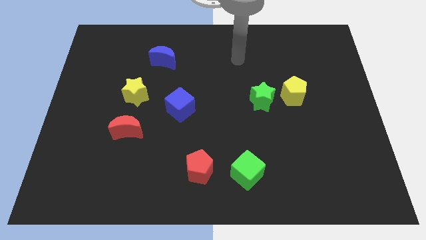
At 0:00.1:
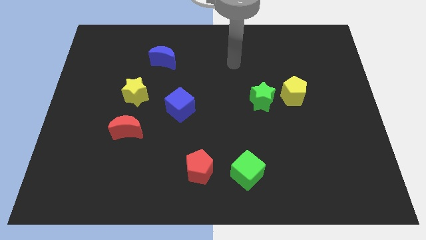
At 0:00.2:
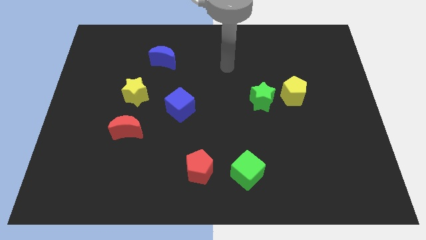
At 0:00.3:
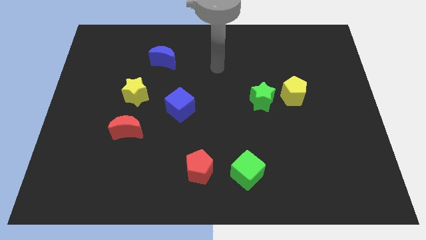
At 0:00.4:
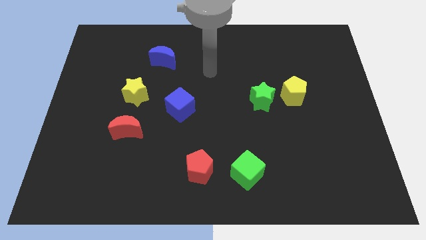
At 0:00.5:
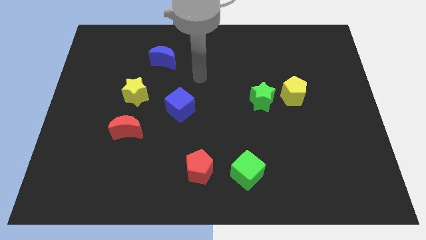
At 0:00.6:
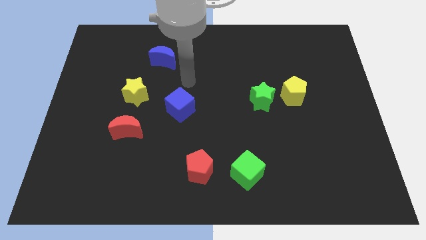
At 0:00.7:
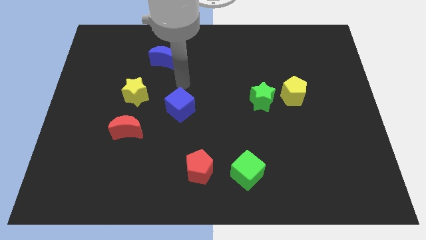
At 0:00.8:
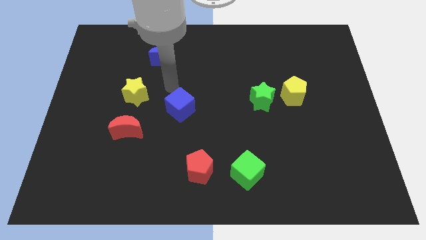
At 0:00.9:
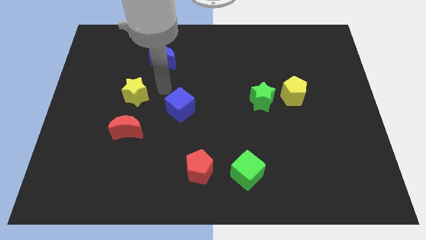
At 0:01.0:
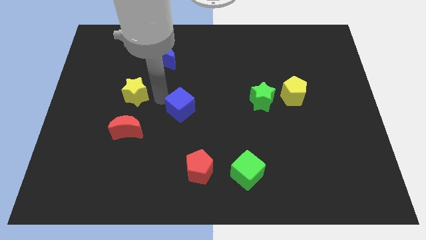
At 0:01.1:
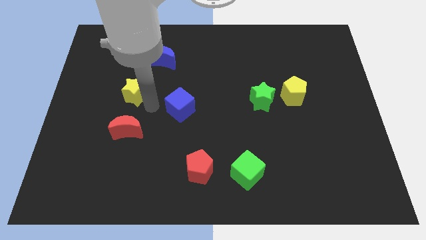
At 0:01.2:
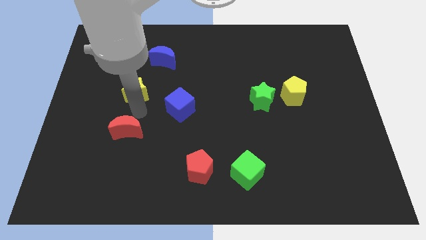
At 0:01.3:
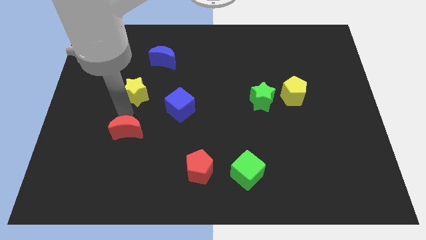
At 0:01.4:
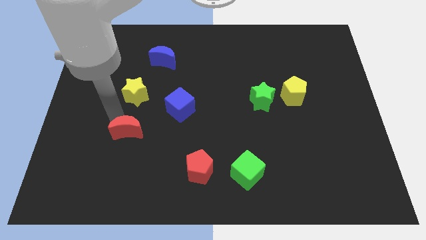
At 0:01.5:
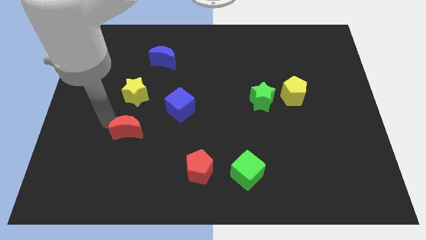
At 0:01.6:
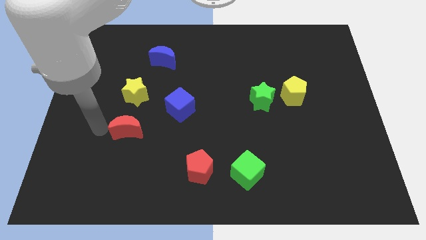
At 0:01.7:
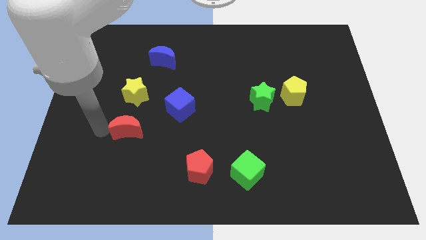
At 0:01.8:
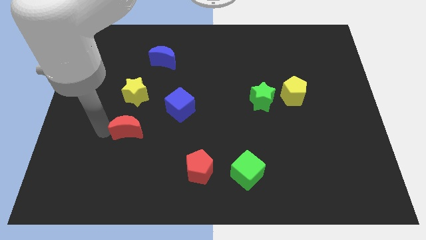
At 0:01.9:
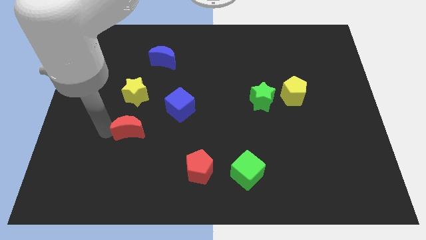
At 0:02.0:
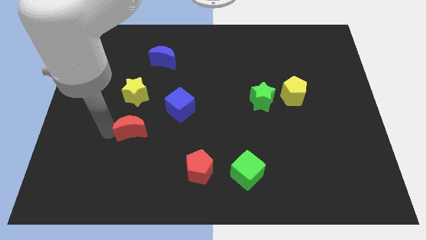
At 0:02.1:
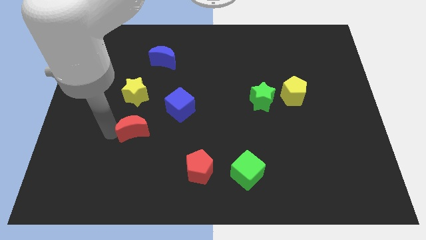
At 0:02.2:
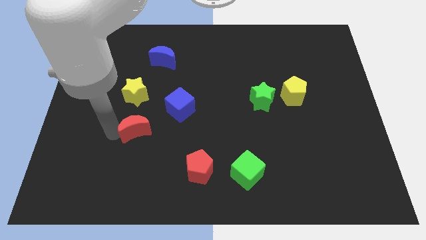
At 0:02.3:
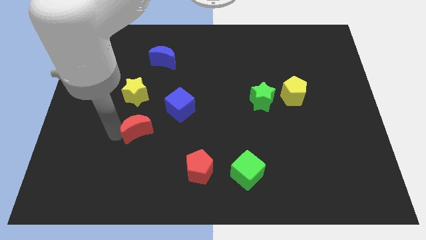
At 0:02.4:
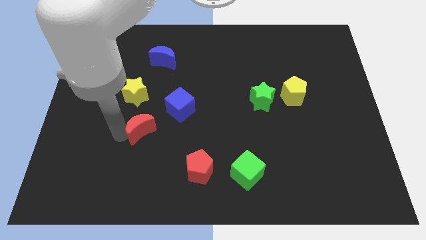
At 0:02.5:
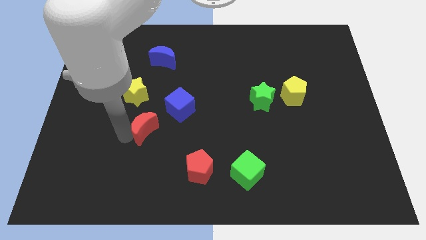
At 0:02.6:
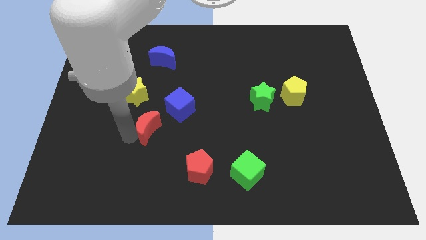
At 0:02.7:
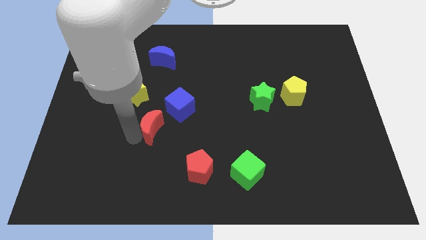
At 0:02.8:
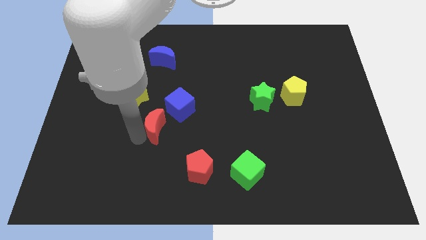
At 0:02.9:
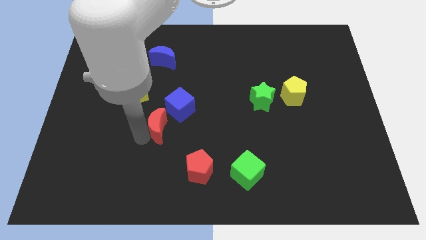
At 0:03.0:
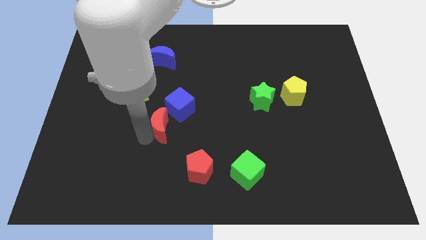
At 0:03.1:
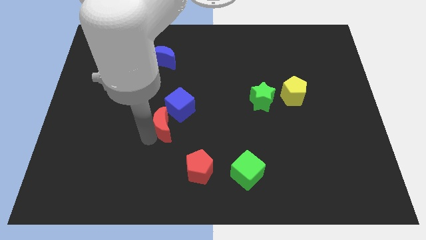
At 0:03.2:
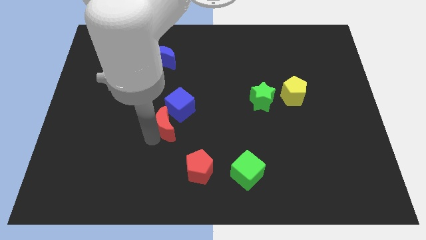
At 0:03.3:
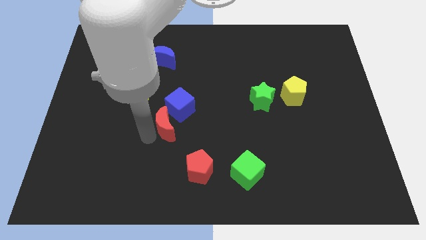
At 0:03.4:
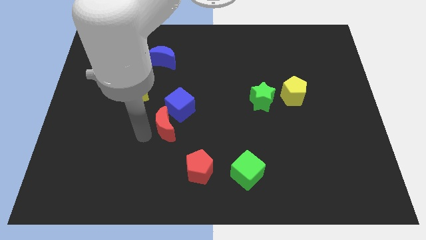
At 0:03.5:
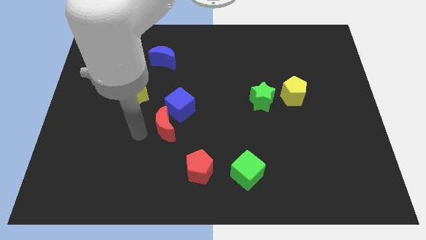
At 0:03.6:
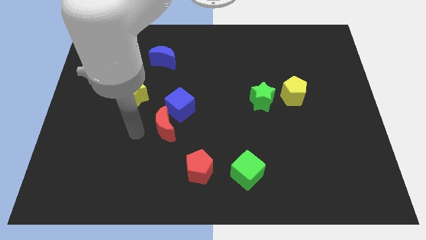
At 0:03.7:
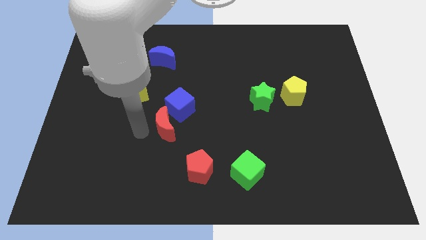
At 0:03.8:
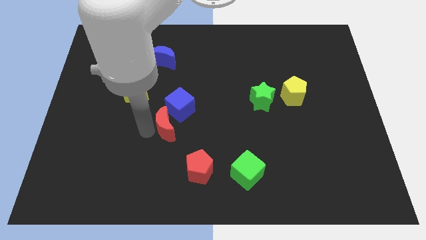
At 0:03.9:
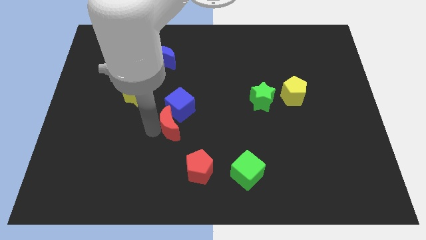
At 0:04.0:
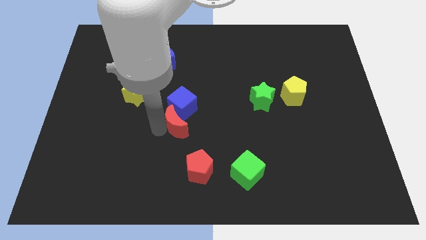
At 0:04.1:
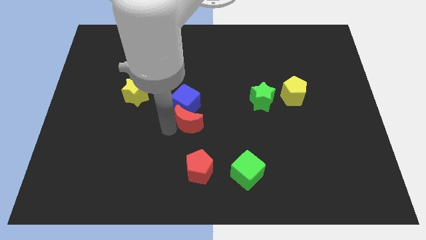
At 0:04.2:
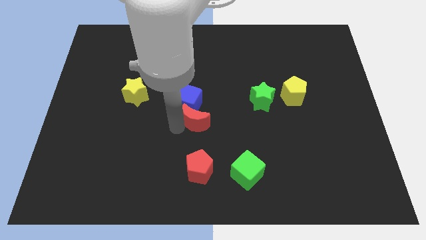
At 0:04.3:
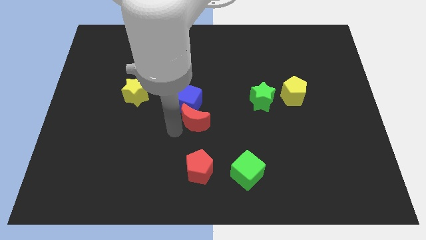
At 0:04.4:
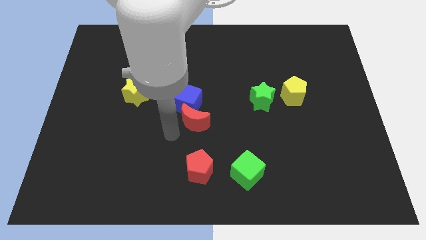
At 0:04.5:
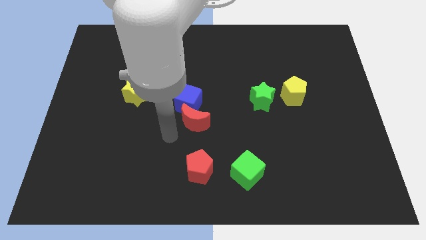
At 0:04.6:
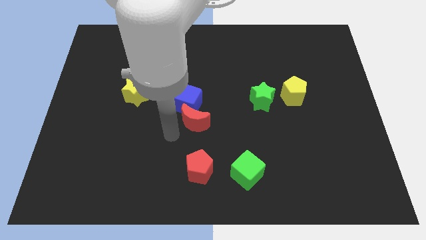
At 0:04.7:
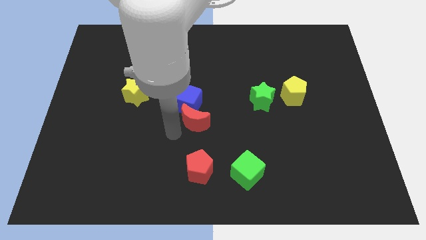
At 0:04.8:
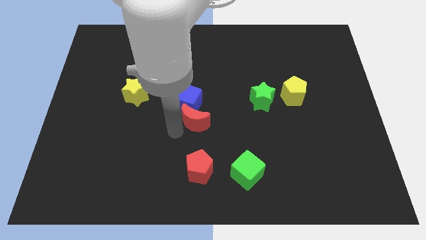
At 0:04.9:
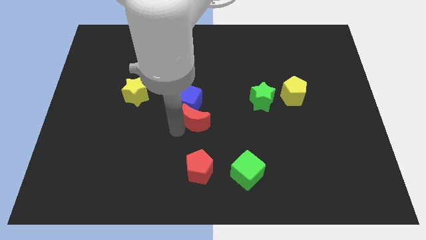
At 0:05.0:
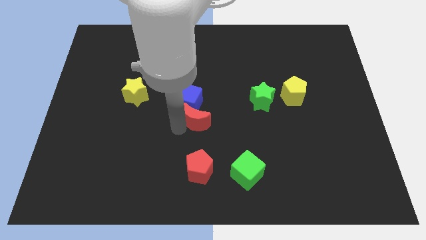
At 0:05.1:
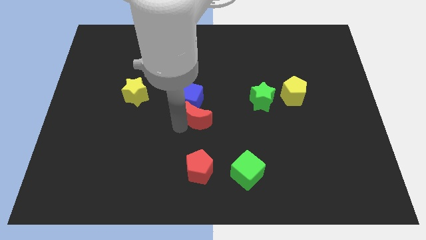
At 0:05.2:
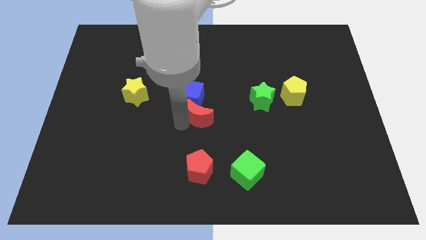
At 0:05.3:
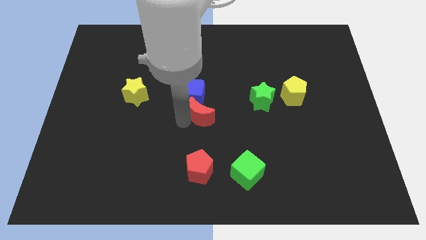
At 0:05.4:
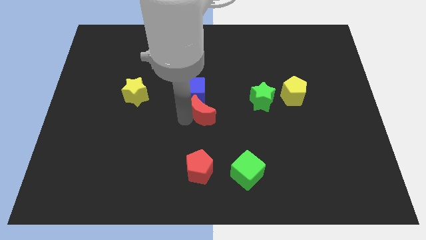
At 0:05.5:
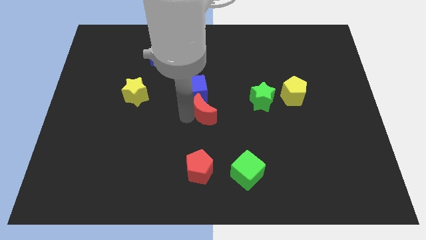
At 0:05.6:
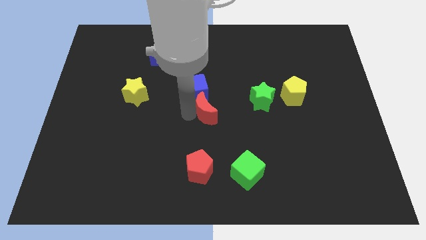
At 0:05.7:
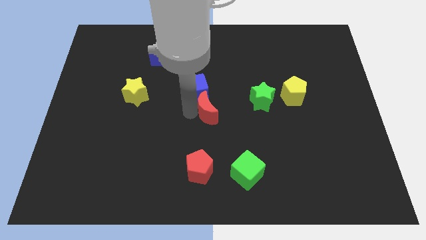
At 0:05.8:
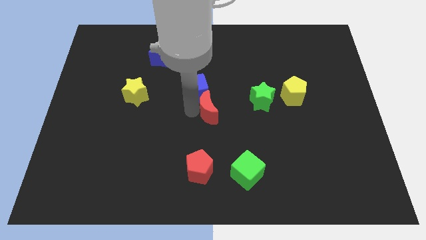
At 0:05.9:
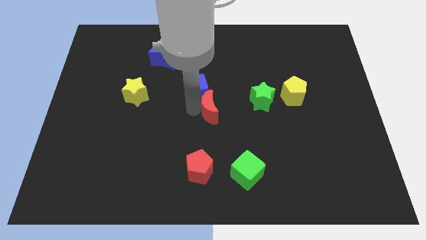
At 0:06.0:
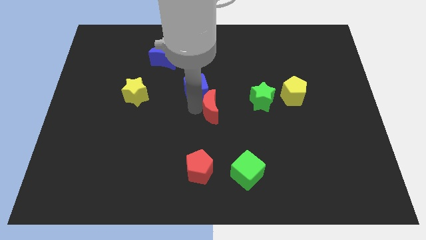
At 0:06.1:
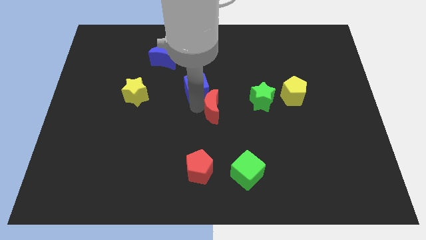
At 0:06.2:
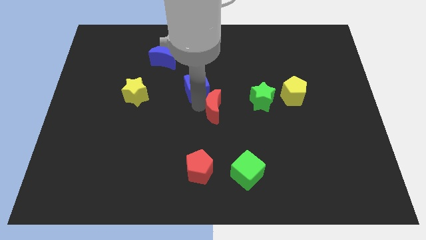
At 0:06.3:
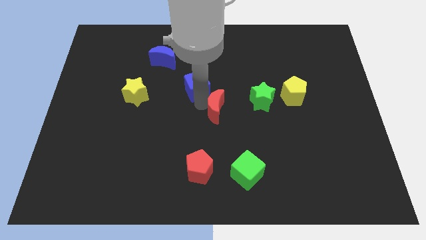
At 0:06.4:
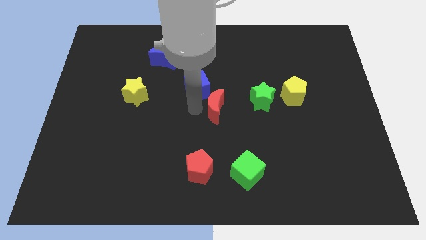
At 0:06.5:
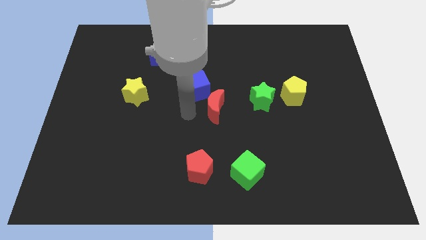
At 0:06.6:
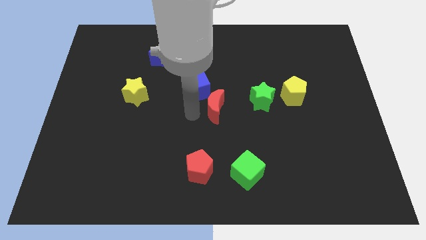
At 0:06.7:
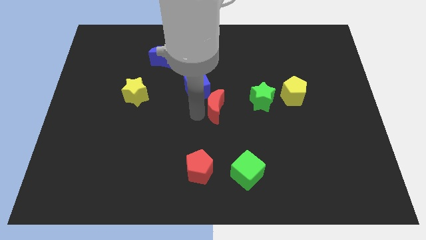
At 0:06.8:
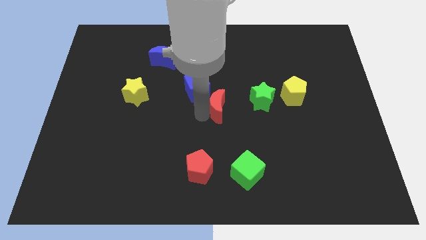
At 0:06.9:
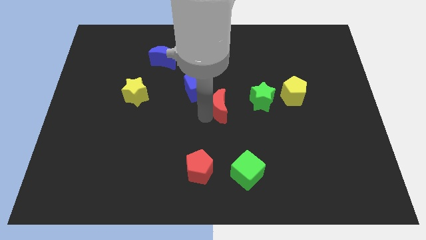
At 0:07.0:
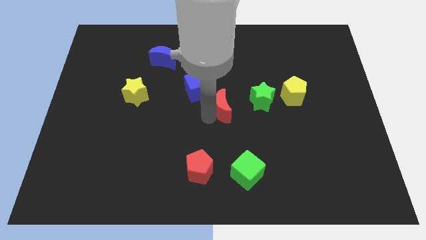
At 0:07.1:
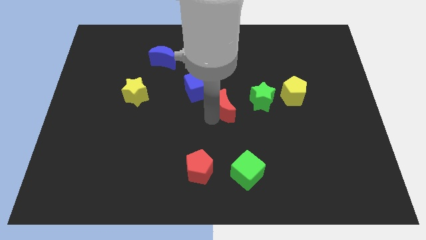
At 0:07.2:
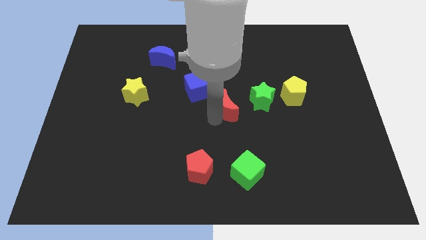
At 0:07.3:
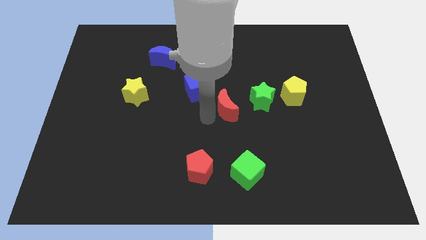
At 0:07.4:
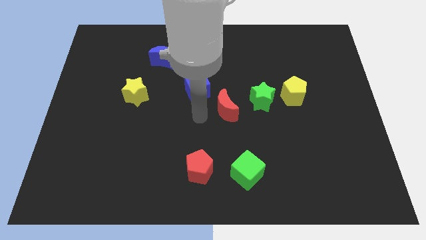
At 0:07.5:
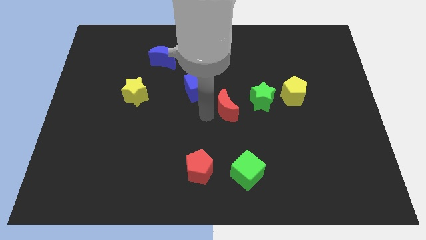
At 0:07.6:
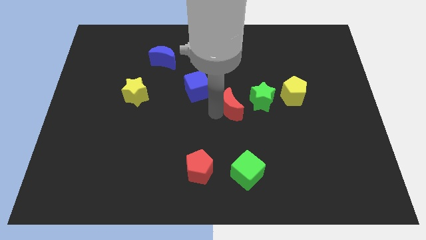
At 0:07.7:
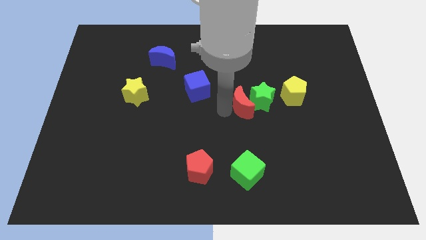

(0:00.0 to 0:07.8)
push the red moon to the green star
